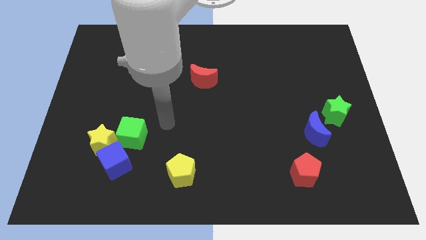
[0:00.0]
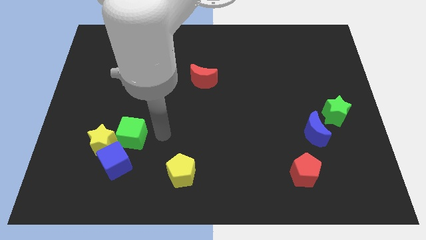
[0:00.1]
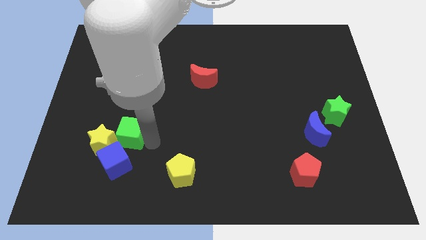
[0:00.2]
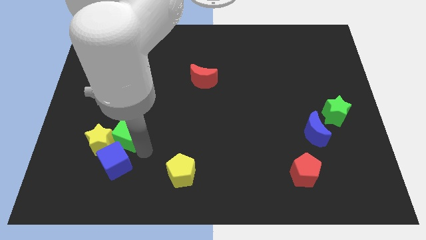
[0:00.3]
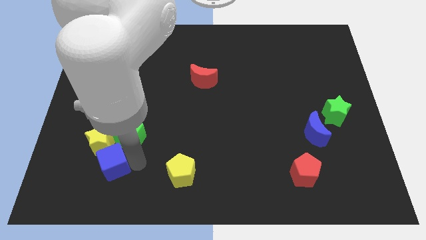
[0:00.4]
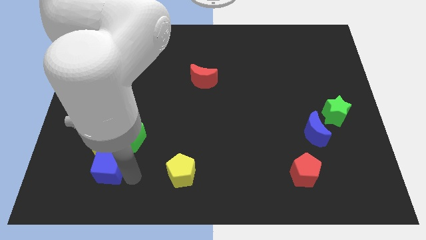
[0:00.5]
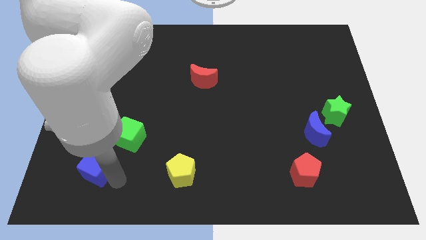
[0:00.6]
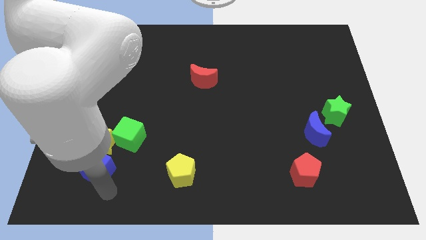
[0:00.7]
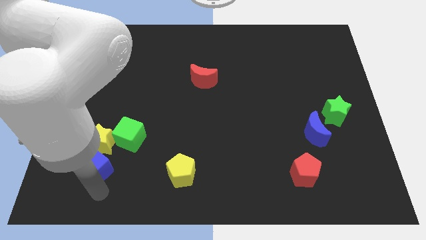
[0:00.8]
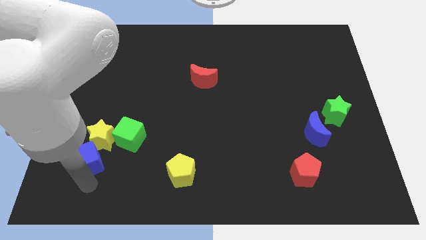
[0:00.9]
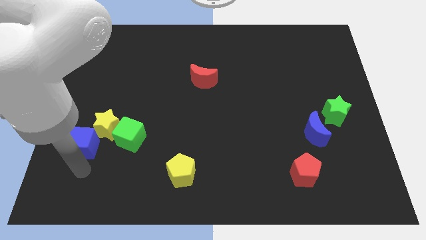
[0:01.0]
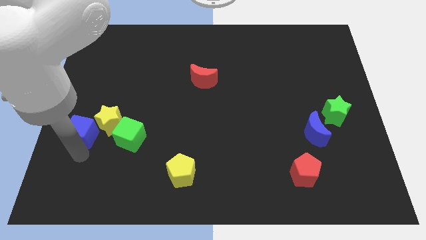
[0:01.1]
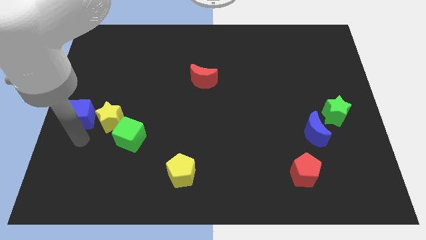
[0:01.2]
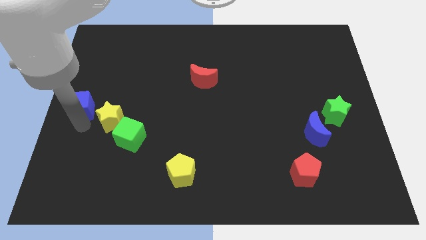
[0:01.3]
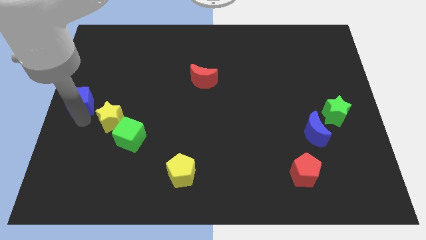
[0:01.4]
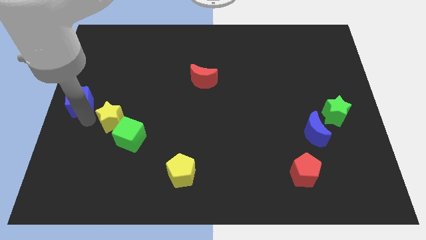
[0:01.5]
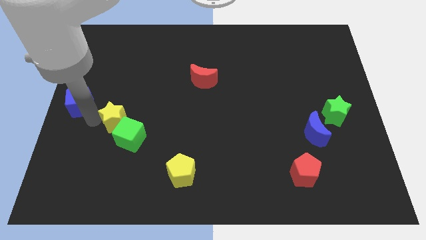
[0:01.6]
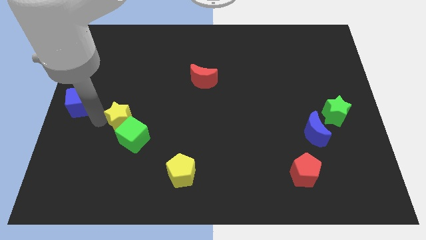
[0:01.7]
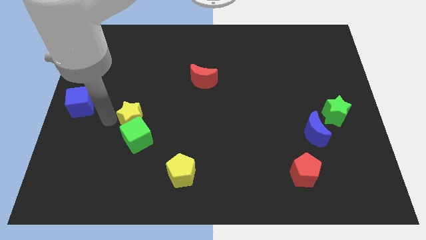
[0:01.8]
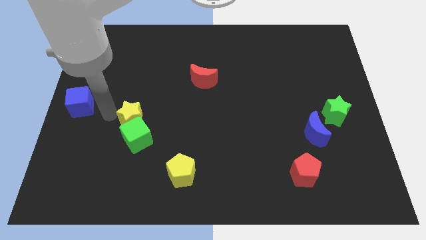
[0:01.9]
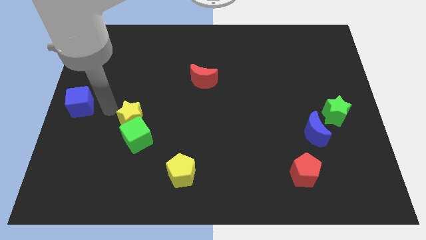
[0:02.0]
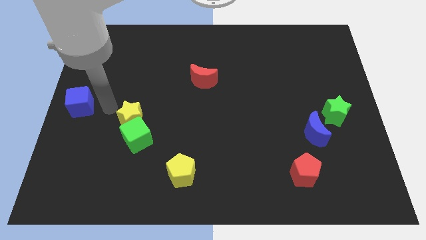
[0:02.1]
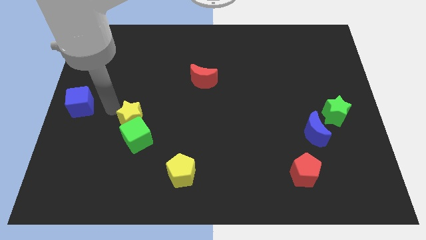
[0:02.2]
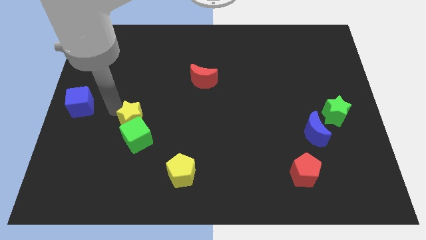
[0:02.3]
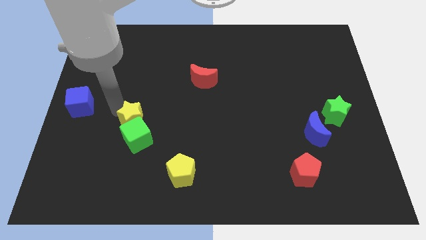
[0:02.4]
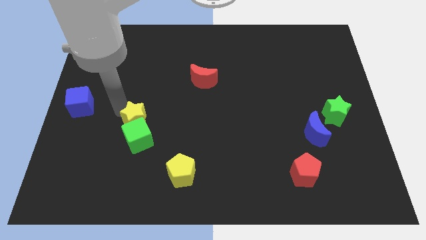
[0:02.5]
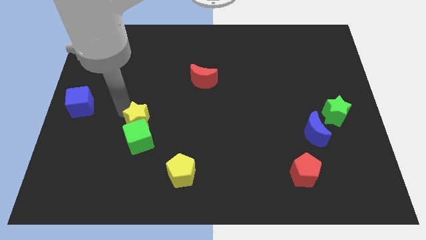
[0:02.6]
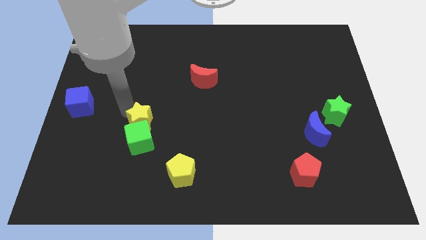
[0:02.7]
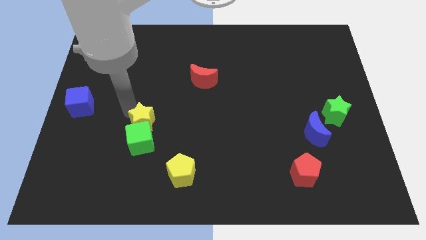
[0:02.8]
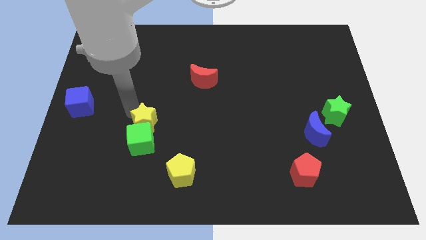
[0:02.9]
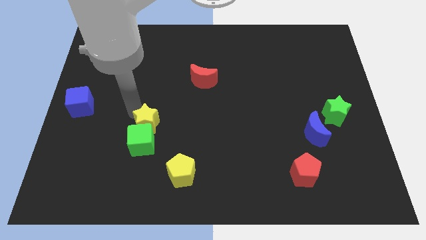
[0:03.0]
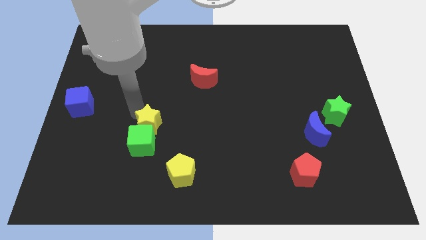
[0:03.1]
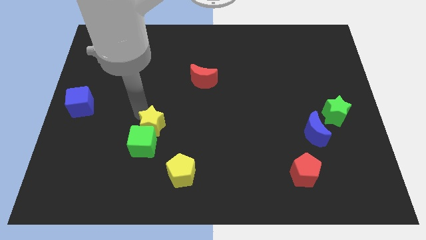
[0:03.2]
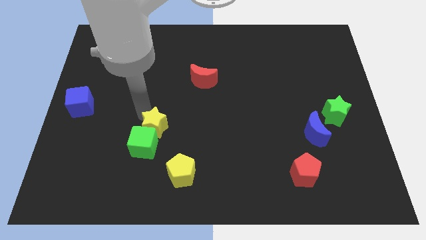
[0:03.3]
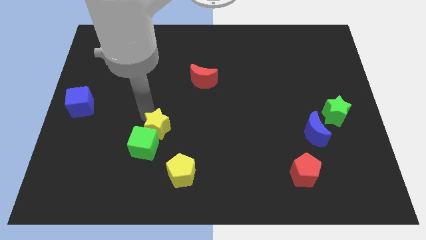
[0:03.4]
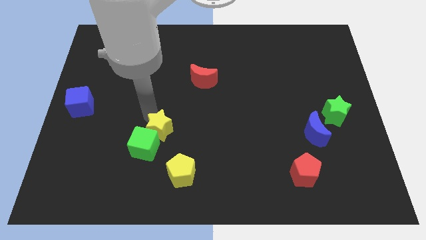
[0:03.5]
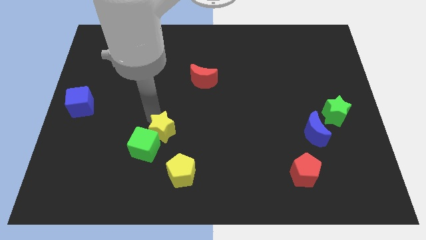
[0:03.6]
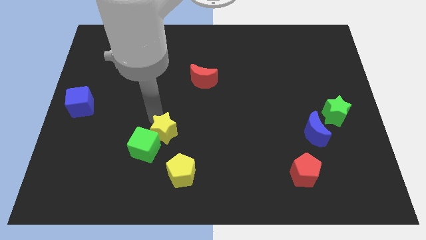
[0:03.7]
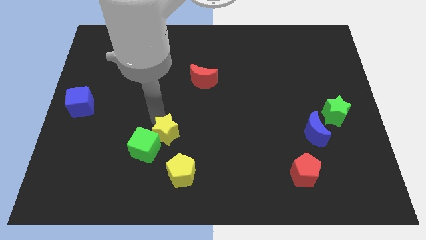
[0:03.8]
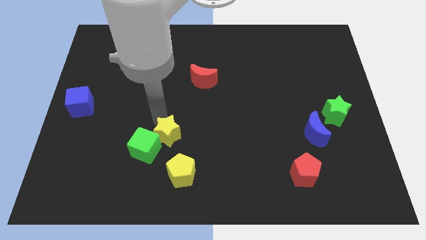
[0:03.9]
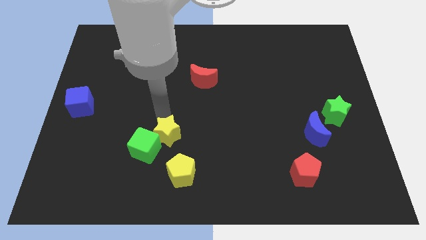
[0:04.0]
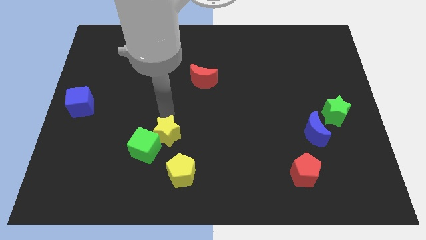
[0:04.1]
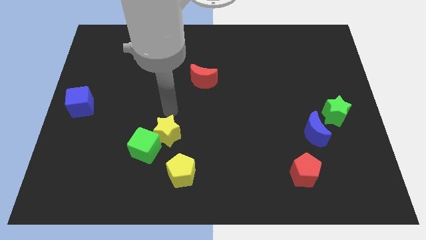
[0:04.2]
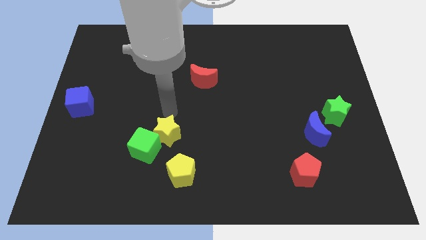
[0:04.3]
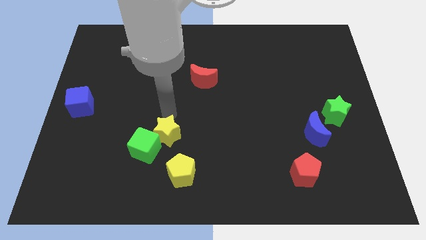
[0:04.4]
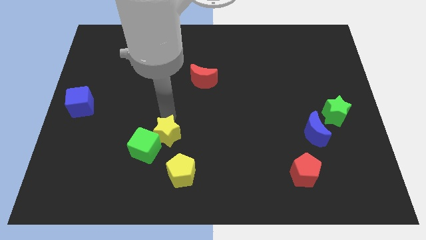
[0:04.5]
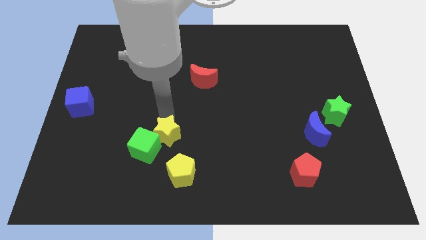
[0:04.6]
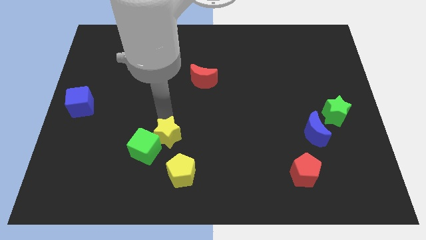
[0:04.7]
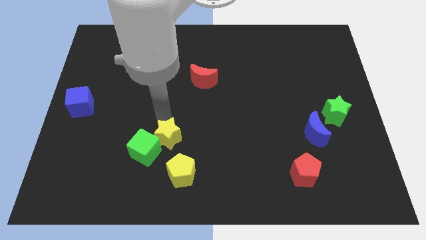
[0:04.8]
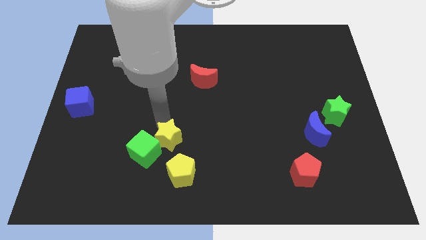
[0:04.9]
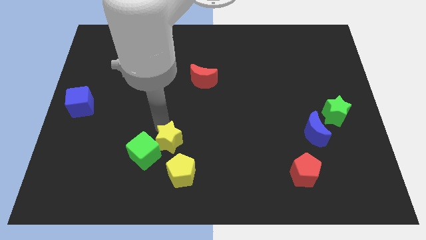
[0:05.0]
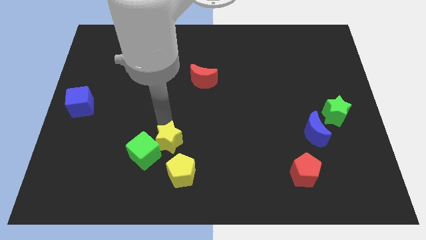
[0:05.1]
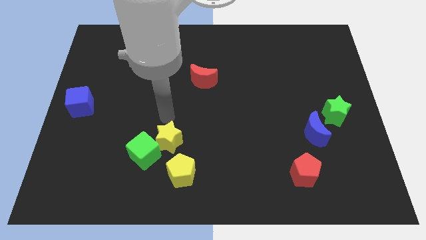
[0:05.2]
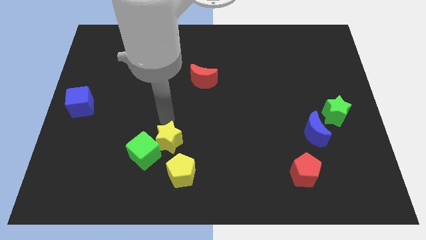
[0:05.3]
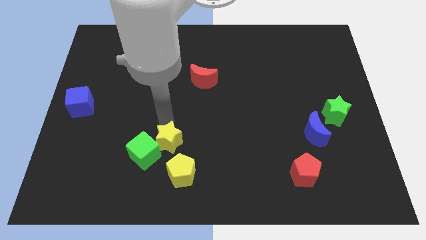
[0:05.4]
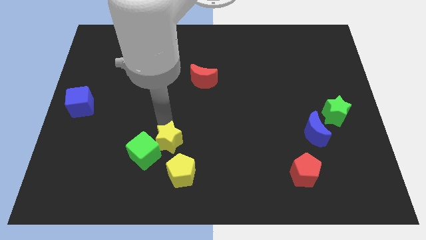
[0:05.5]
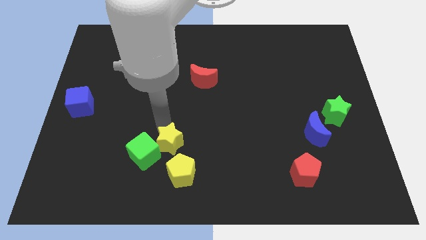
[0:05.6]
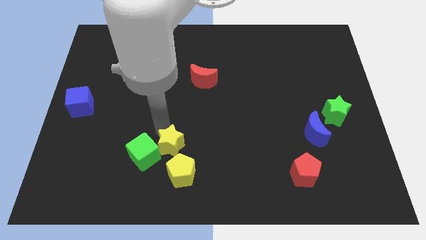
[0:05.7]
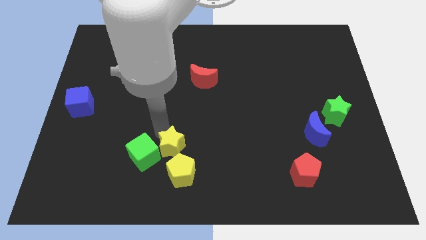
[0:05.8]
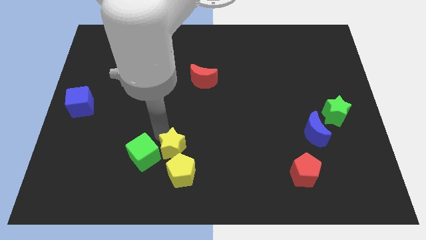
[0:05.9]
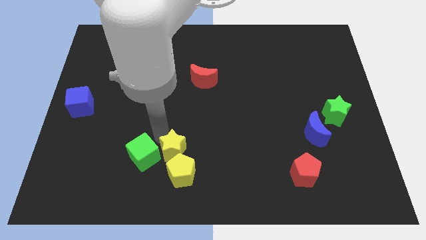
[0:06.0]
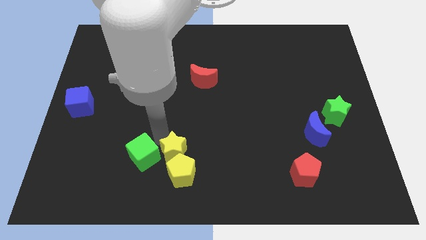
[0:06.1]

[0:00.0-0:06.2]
put the yellow star towards the yellow pentagon

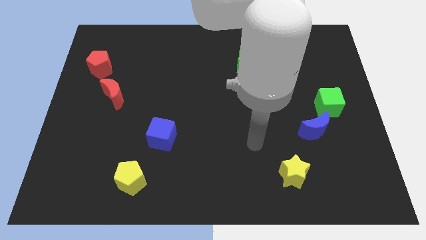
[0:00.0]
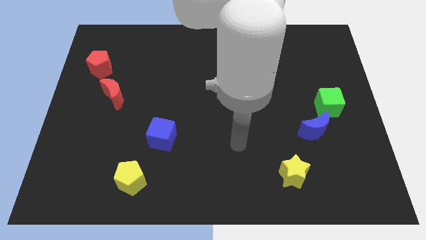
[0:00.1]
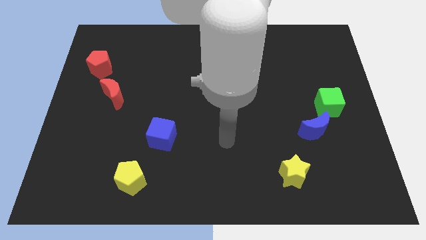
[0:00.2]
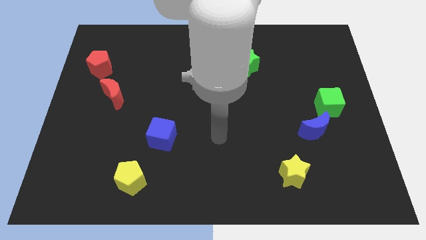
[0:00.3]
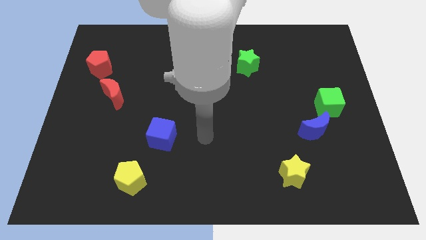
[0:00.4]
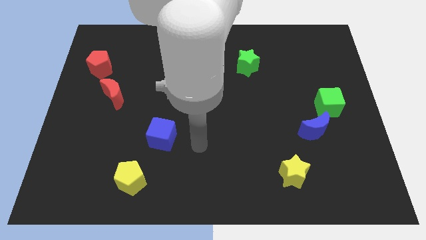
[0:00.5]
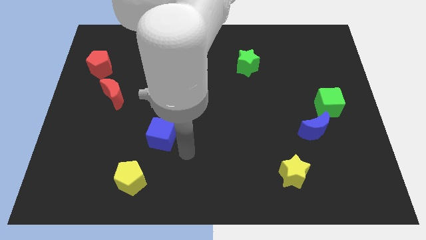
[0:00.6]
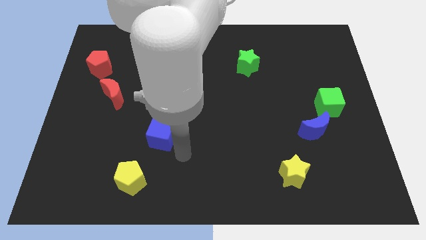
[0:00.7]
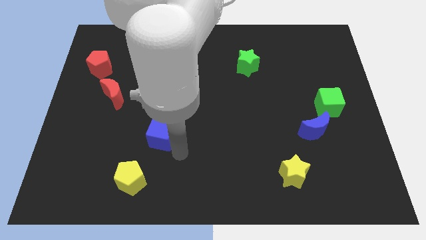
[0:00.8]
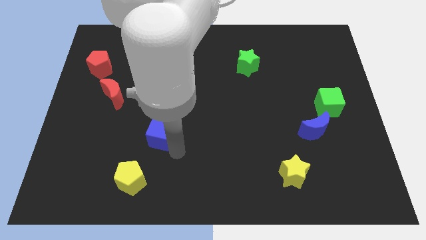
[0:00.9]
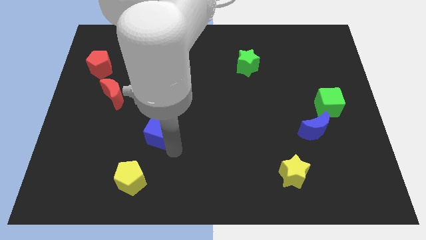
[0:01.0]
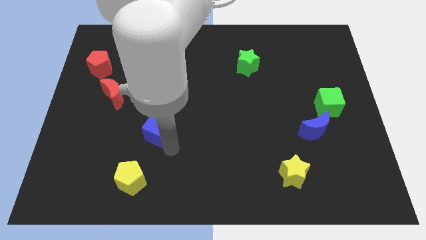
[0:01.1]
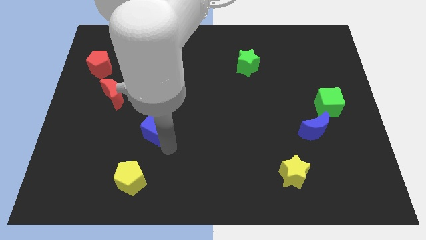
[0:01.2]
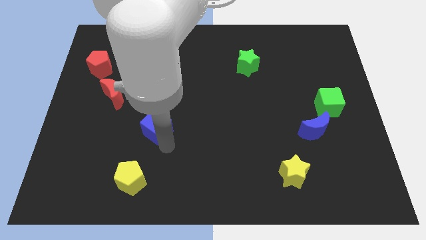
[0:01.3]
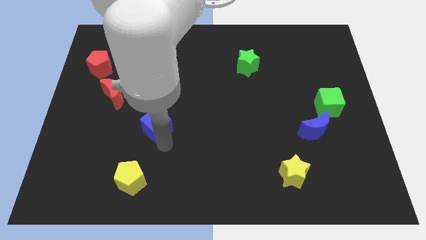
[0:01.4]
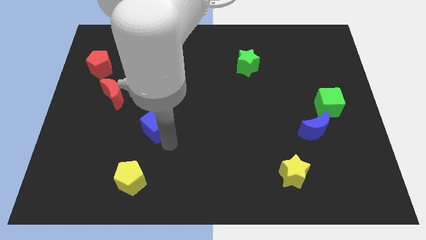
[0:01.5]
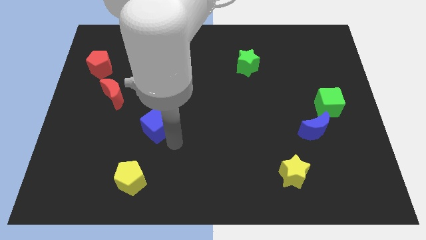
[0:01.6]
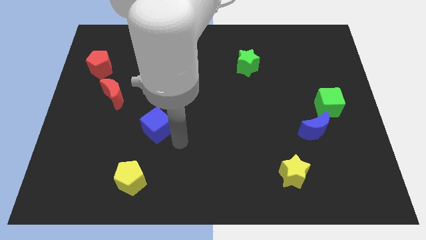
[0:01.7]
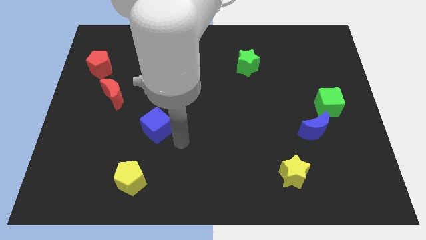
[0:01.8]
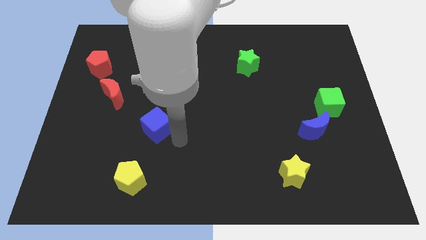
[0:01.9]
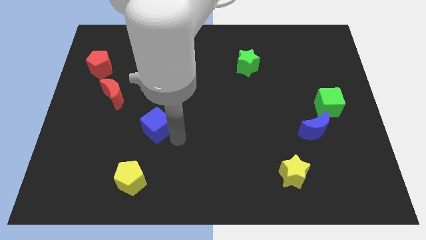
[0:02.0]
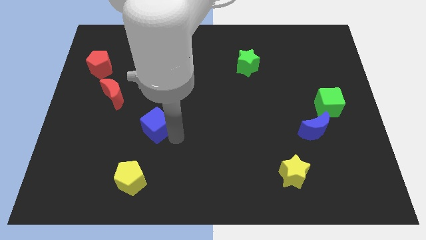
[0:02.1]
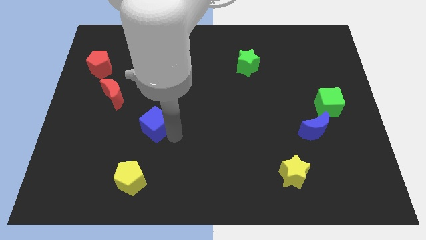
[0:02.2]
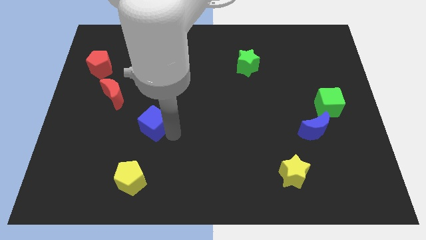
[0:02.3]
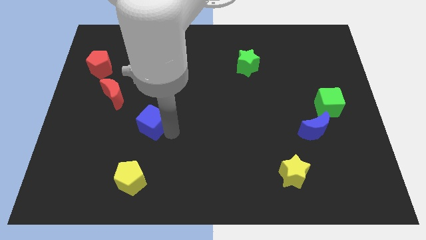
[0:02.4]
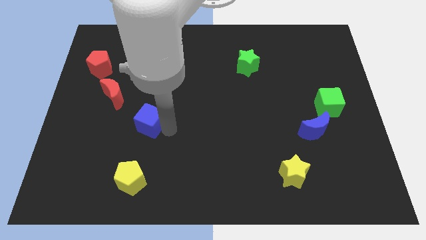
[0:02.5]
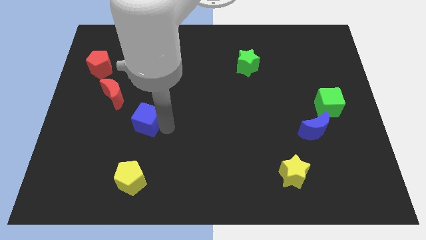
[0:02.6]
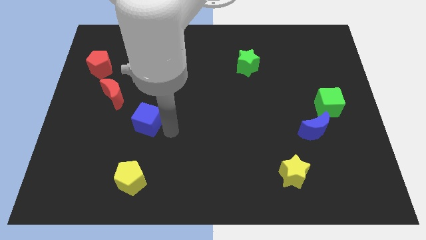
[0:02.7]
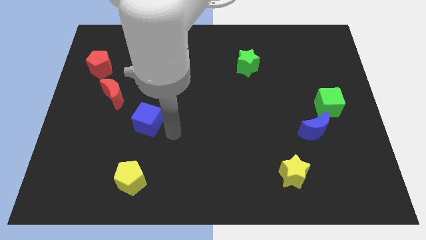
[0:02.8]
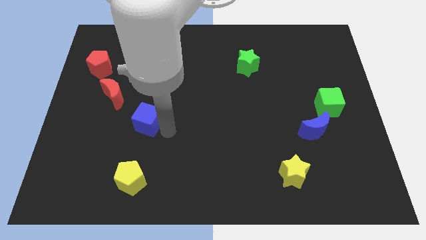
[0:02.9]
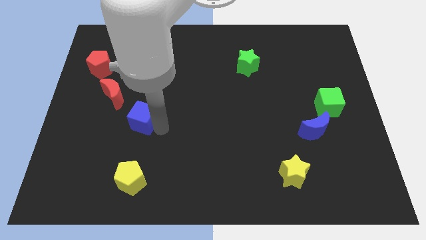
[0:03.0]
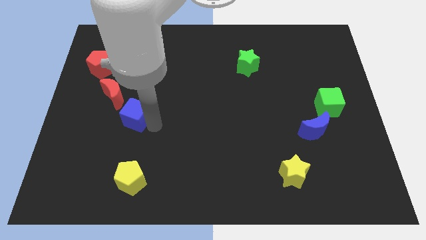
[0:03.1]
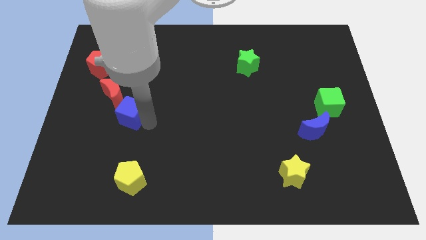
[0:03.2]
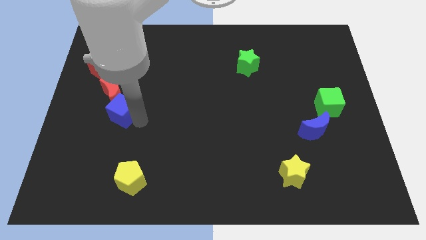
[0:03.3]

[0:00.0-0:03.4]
move the blue cube towards the red moon
